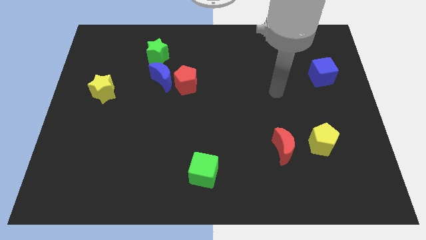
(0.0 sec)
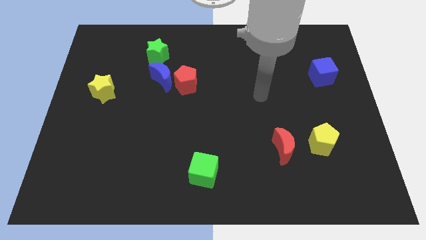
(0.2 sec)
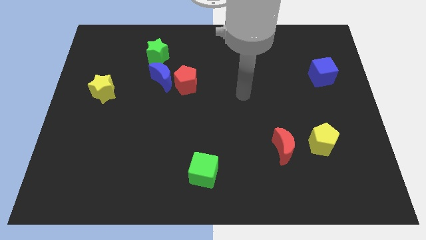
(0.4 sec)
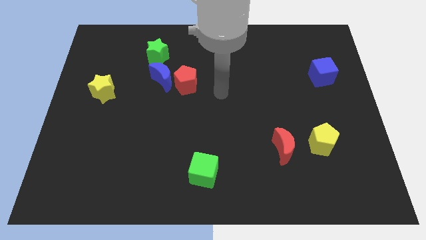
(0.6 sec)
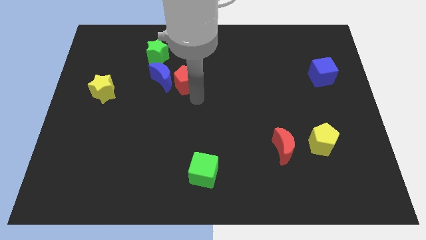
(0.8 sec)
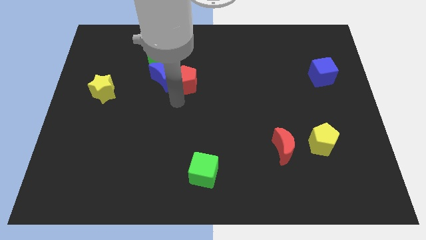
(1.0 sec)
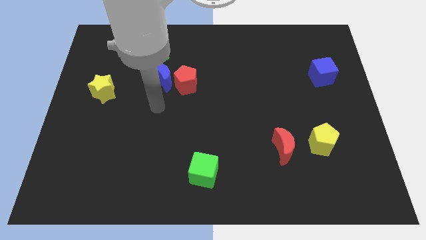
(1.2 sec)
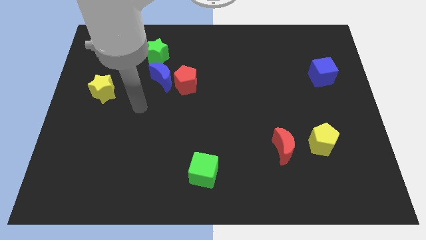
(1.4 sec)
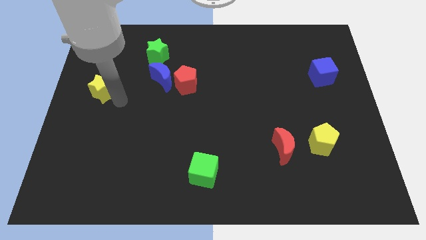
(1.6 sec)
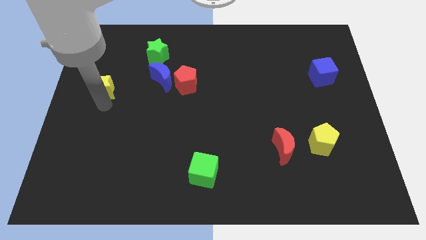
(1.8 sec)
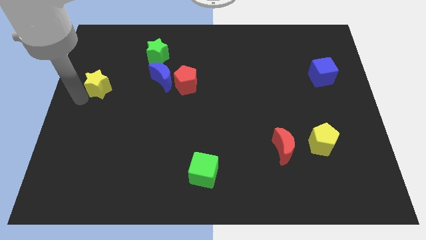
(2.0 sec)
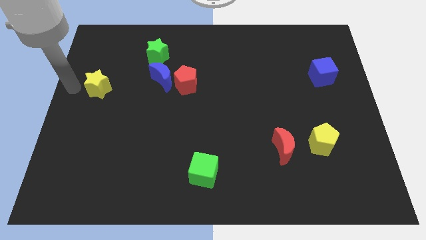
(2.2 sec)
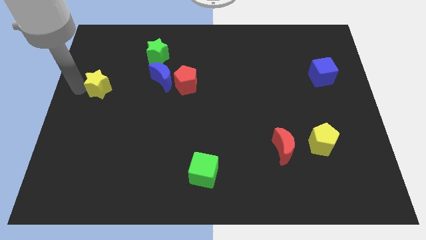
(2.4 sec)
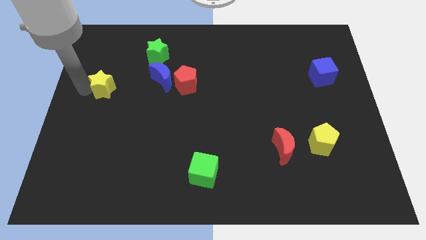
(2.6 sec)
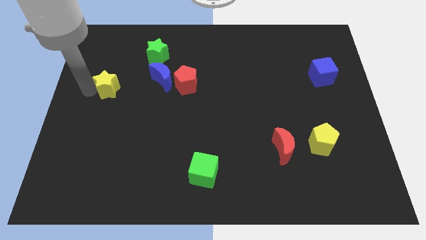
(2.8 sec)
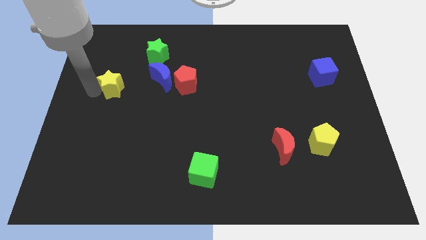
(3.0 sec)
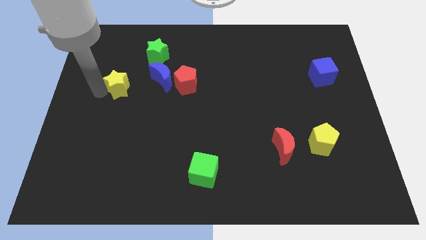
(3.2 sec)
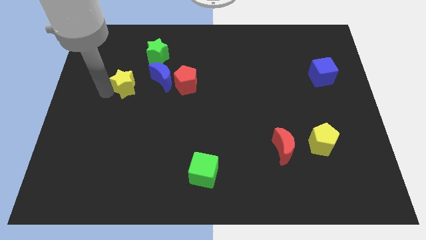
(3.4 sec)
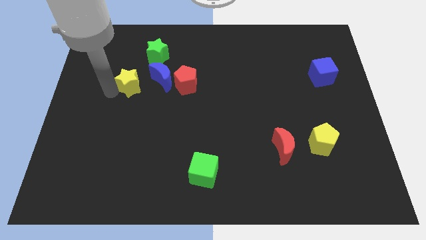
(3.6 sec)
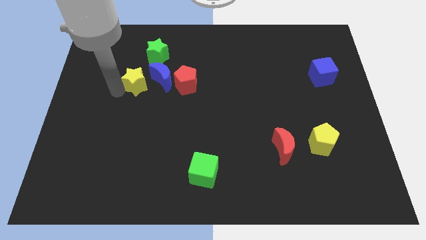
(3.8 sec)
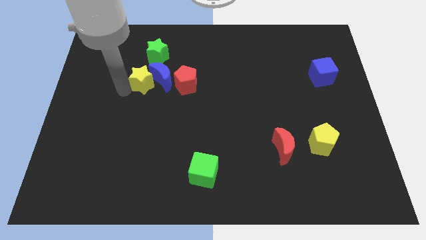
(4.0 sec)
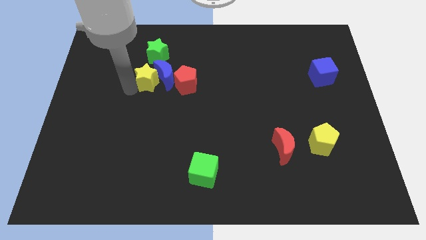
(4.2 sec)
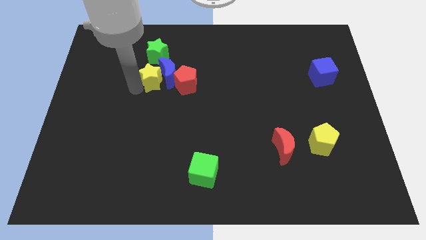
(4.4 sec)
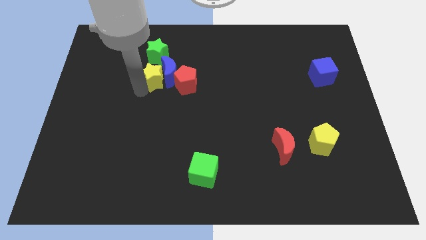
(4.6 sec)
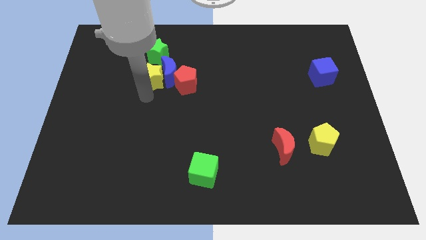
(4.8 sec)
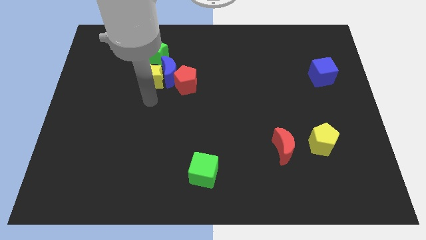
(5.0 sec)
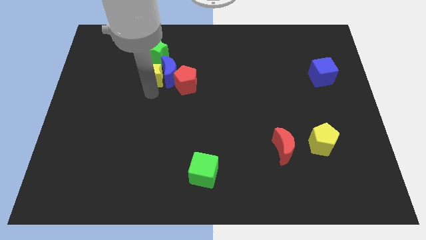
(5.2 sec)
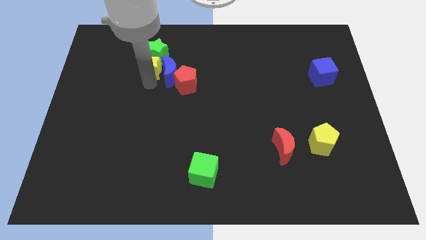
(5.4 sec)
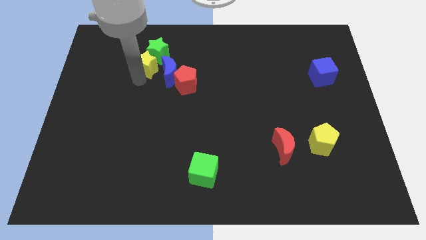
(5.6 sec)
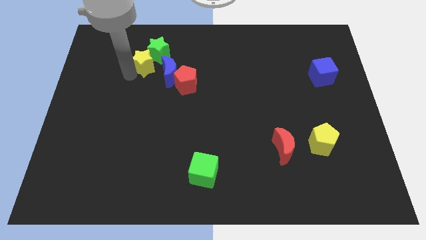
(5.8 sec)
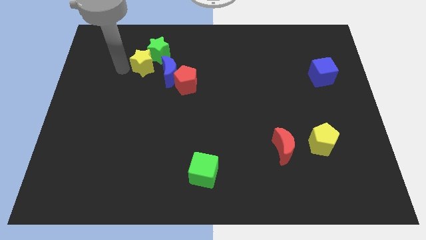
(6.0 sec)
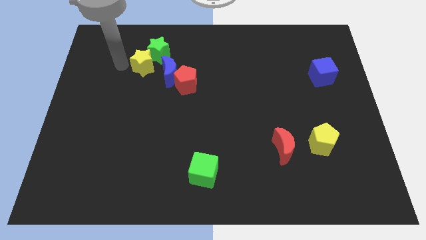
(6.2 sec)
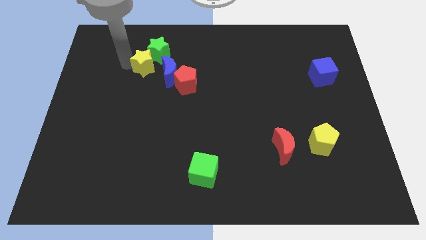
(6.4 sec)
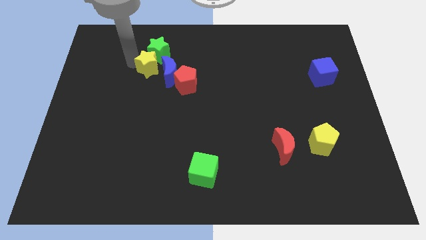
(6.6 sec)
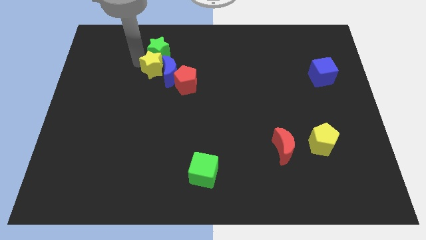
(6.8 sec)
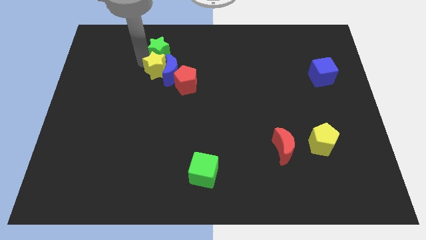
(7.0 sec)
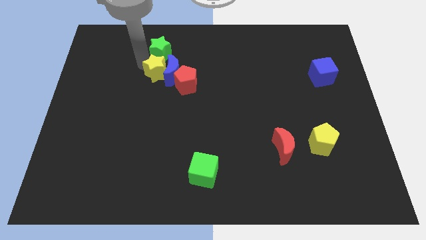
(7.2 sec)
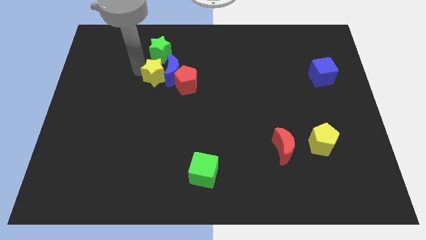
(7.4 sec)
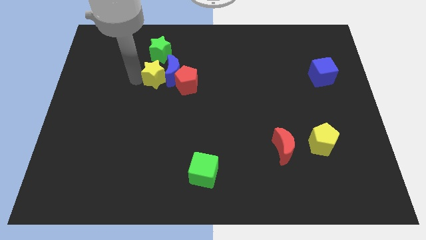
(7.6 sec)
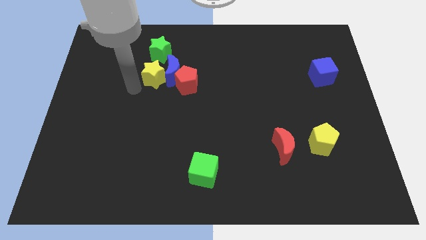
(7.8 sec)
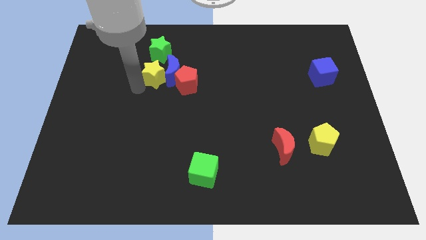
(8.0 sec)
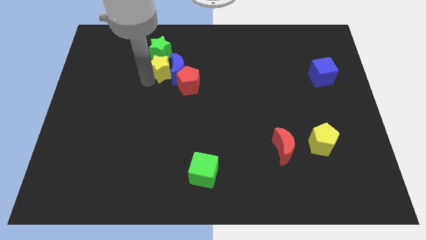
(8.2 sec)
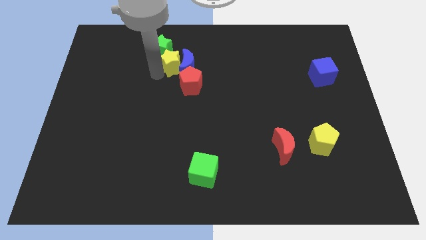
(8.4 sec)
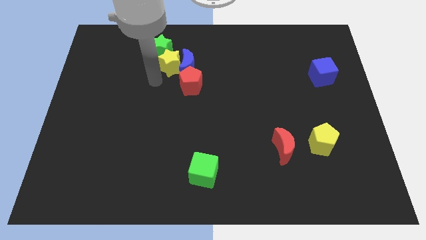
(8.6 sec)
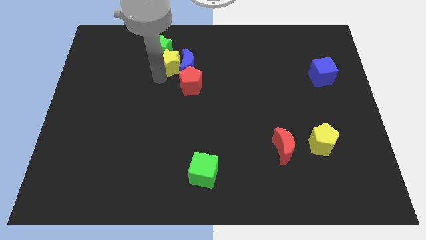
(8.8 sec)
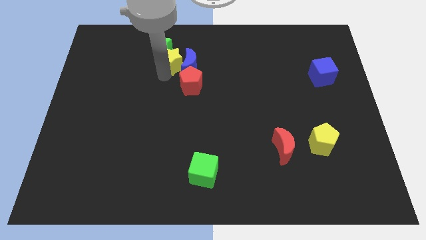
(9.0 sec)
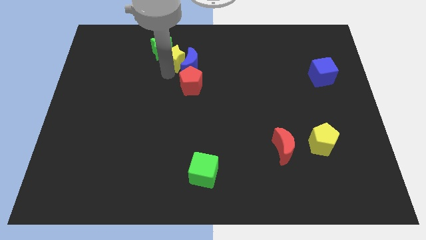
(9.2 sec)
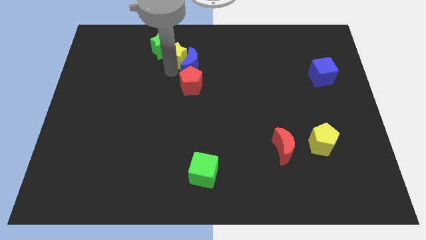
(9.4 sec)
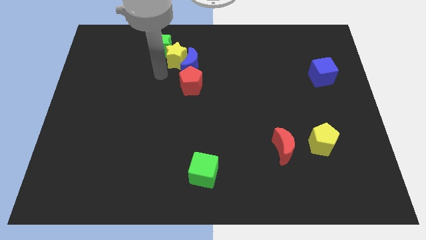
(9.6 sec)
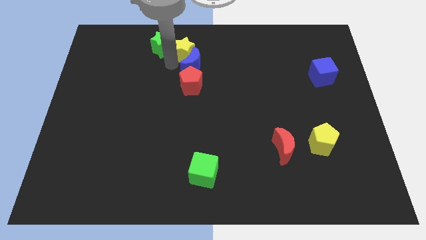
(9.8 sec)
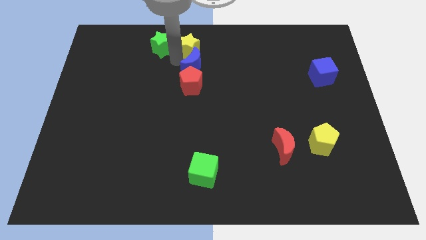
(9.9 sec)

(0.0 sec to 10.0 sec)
put the yellow star to the top

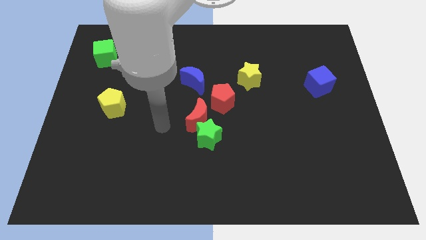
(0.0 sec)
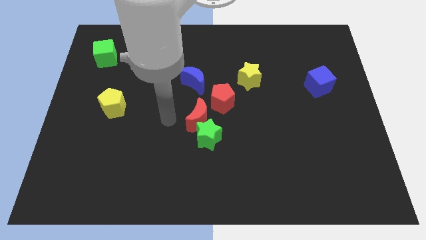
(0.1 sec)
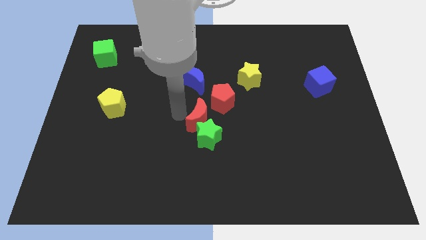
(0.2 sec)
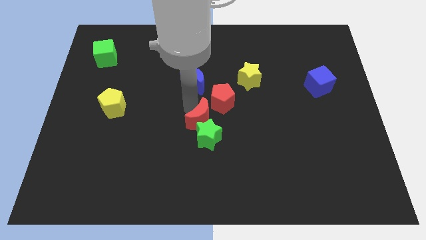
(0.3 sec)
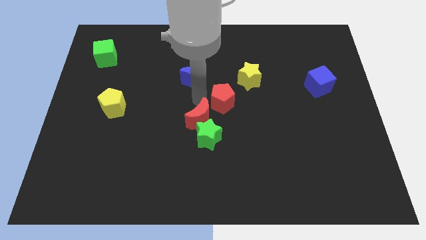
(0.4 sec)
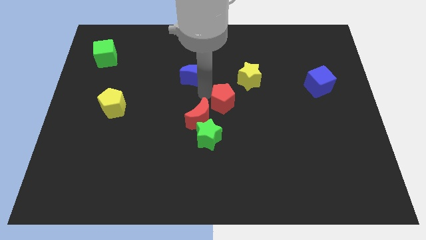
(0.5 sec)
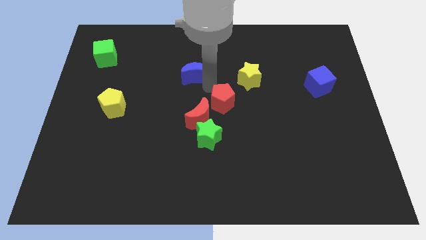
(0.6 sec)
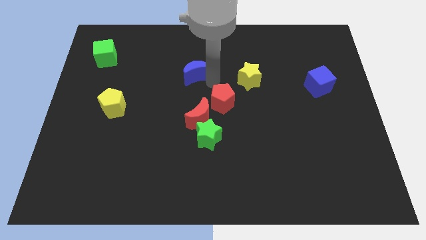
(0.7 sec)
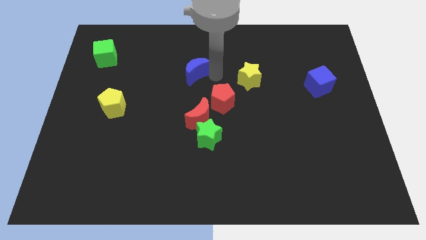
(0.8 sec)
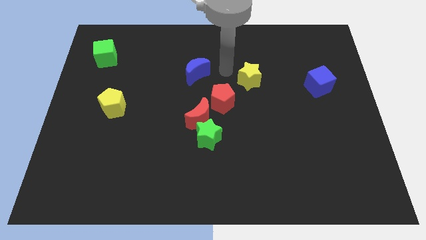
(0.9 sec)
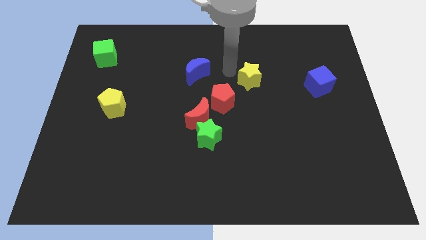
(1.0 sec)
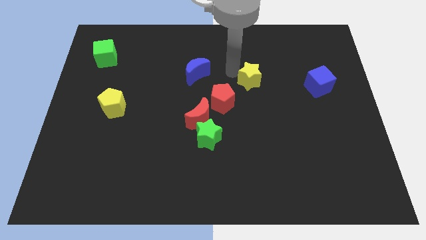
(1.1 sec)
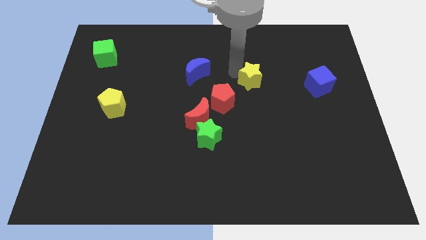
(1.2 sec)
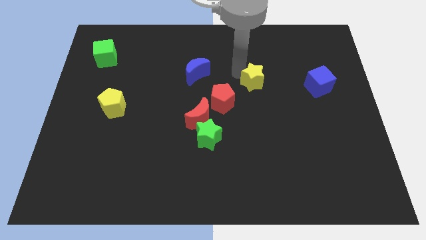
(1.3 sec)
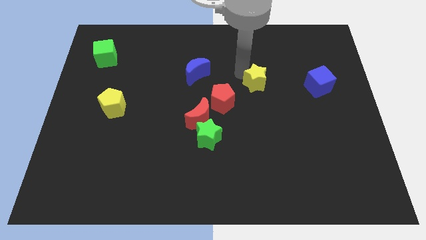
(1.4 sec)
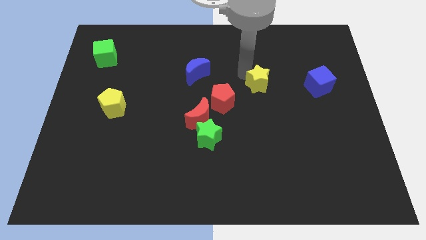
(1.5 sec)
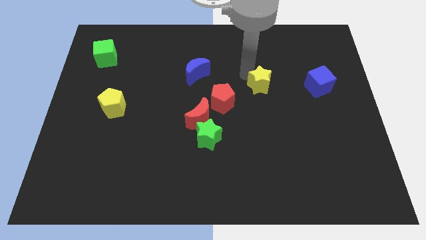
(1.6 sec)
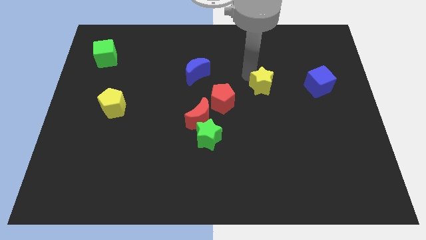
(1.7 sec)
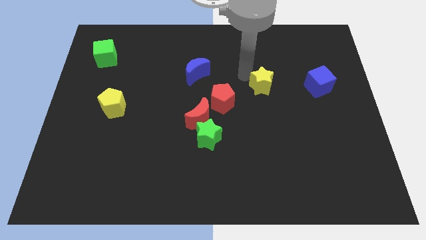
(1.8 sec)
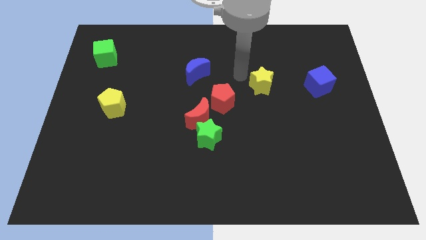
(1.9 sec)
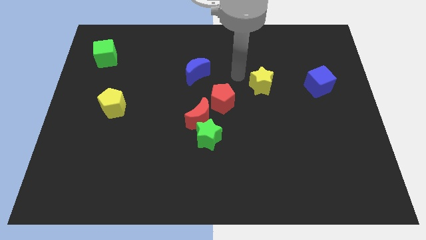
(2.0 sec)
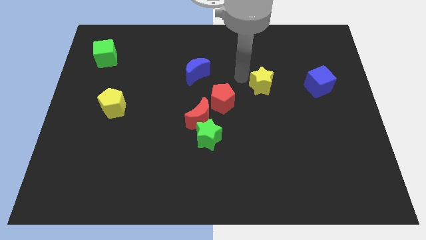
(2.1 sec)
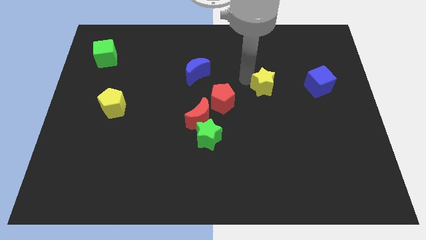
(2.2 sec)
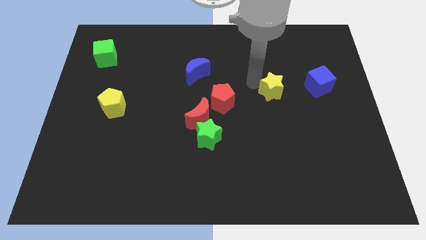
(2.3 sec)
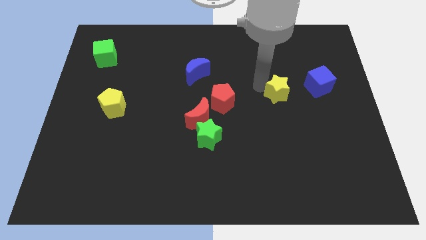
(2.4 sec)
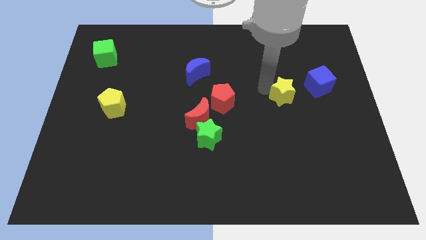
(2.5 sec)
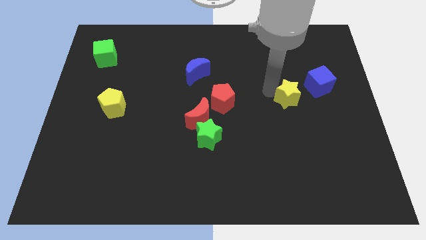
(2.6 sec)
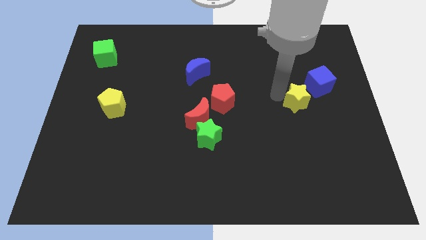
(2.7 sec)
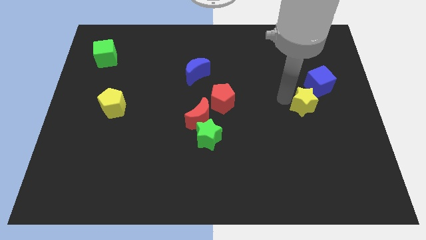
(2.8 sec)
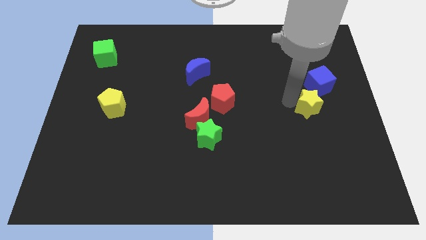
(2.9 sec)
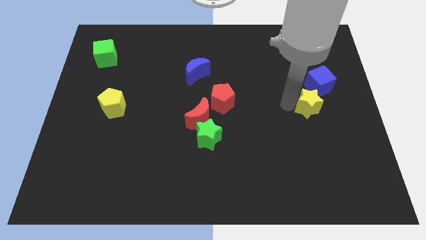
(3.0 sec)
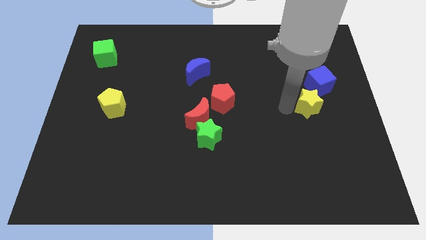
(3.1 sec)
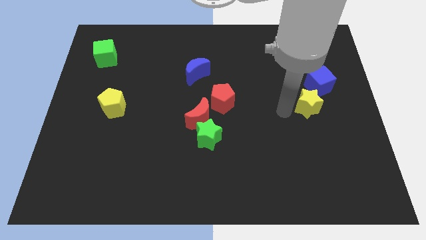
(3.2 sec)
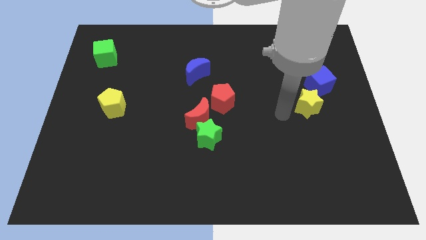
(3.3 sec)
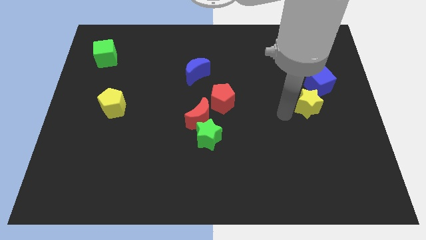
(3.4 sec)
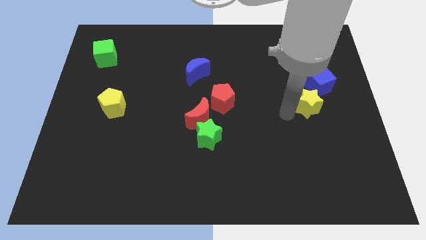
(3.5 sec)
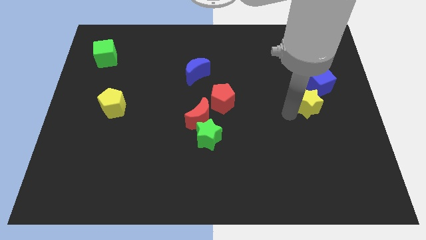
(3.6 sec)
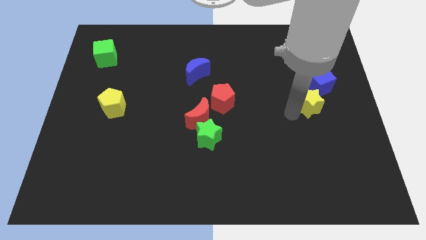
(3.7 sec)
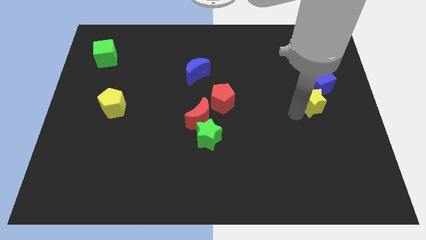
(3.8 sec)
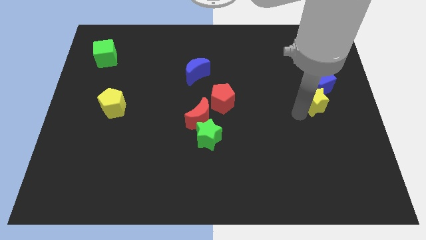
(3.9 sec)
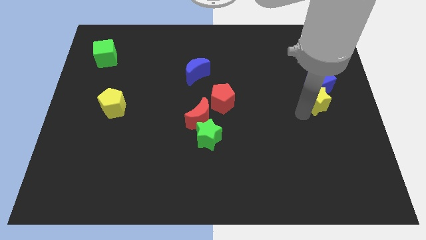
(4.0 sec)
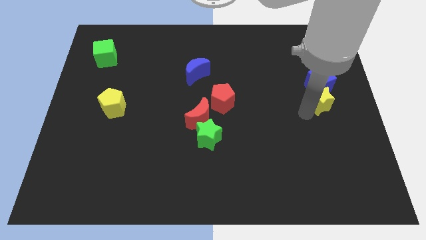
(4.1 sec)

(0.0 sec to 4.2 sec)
move the yellow star to the center right
